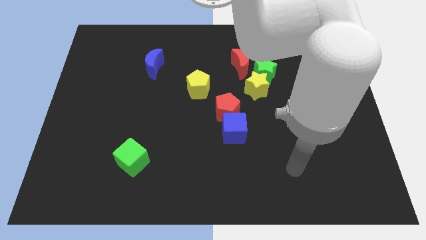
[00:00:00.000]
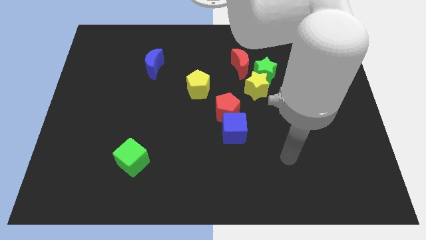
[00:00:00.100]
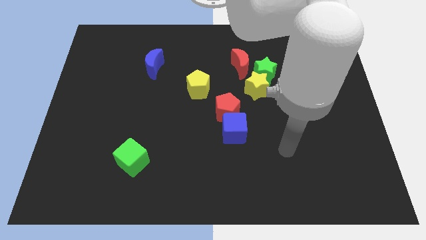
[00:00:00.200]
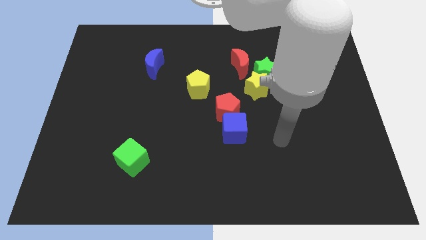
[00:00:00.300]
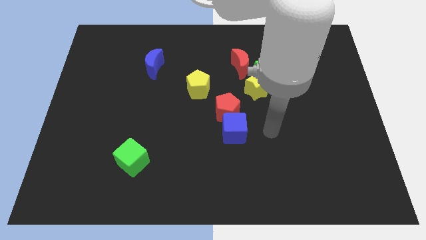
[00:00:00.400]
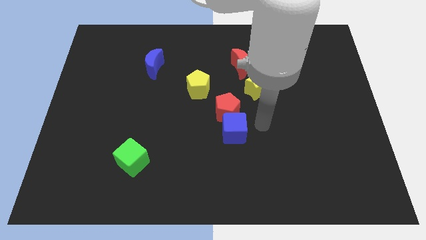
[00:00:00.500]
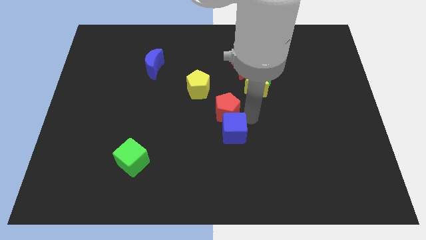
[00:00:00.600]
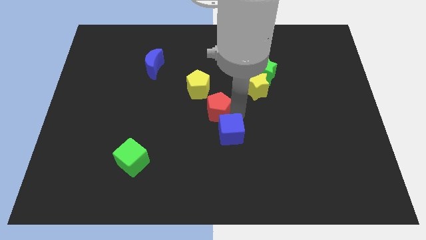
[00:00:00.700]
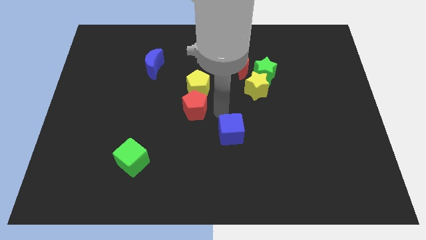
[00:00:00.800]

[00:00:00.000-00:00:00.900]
move the blue cube away from the red pentagon

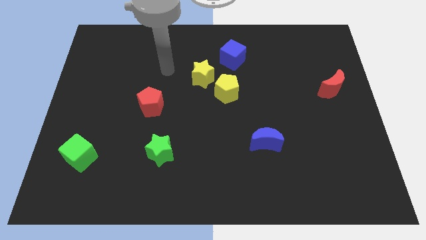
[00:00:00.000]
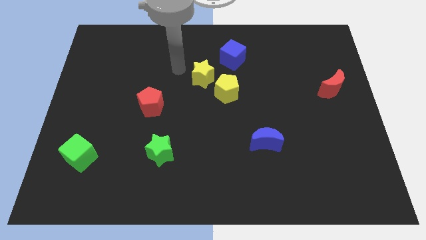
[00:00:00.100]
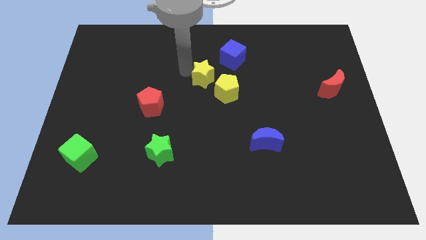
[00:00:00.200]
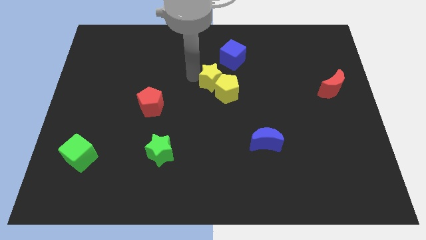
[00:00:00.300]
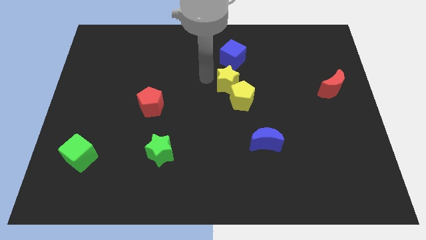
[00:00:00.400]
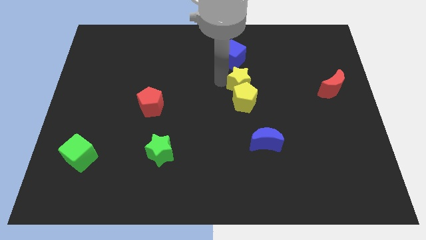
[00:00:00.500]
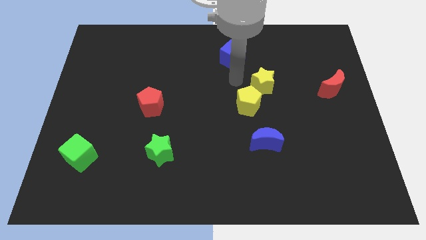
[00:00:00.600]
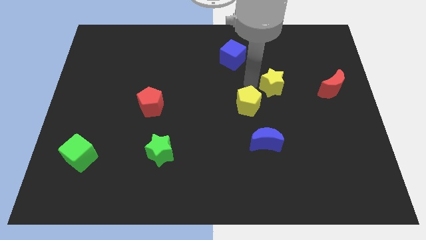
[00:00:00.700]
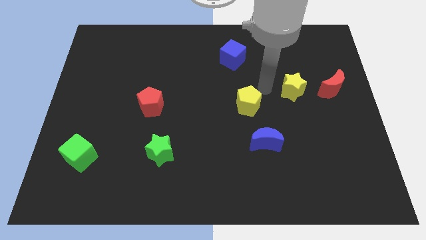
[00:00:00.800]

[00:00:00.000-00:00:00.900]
move the yellow pentagon away from the yellow star

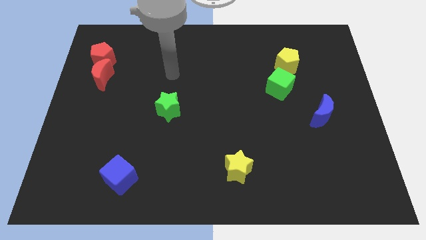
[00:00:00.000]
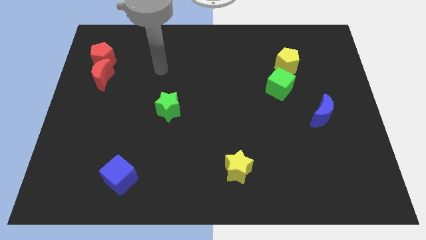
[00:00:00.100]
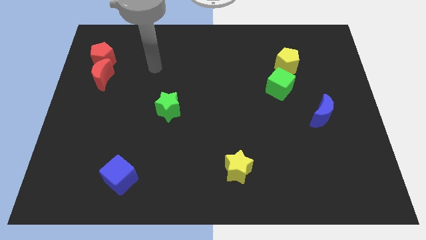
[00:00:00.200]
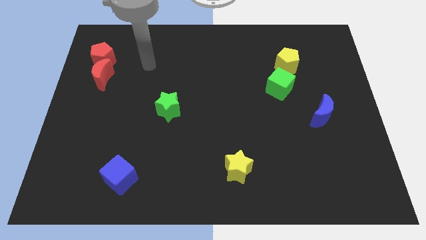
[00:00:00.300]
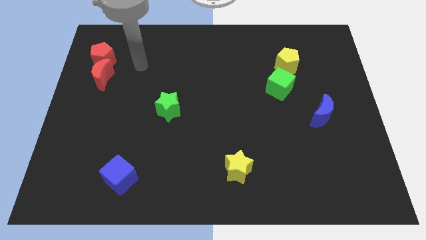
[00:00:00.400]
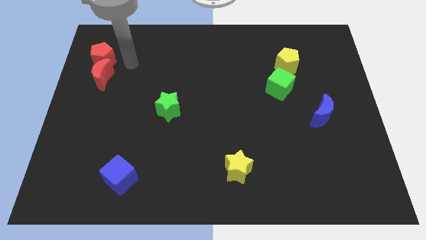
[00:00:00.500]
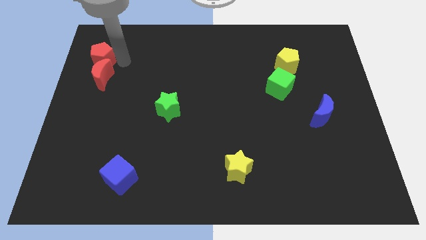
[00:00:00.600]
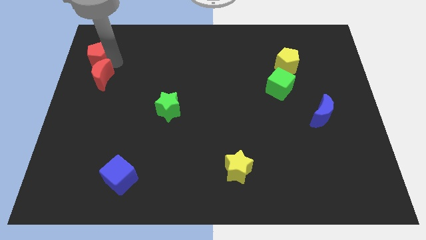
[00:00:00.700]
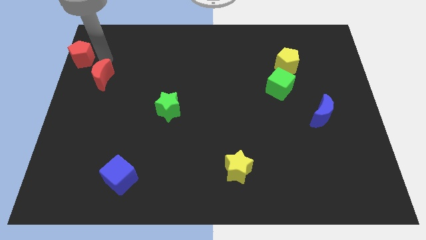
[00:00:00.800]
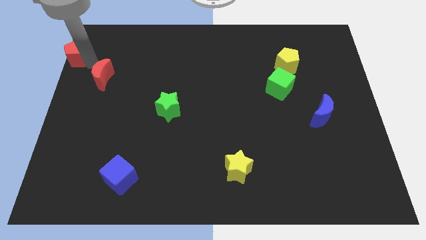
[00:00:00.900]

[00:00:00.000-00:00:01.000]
separate the red moon from the red pentagon

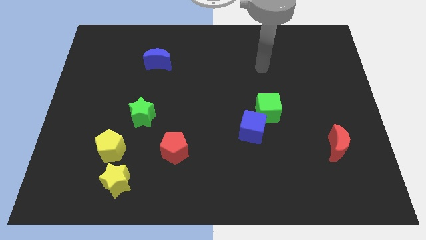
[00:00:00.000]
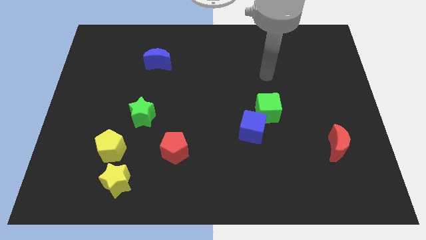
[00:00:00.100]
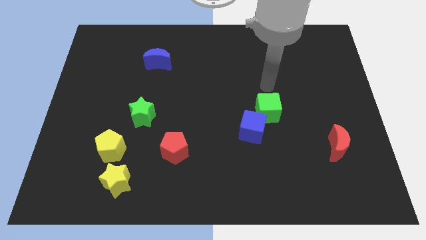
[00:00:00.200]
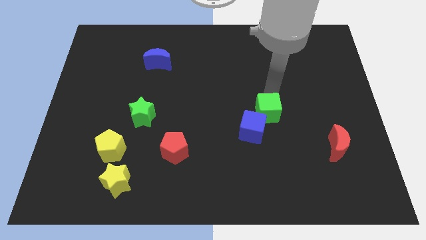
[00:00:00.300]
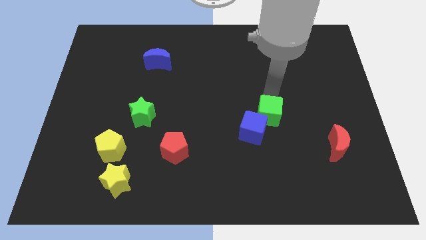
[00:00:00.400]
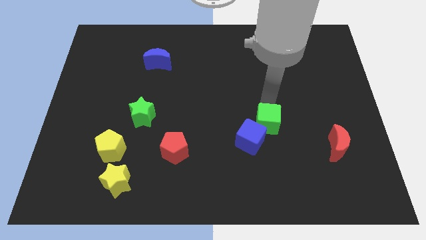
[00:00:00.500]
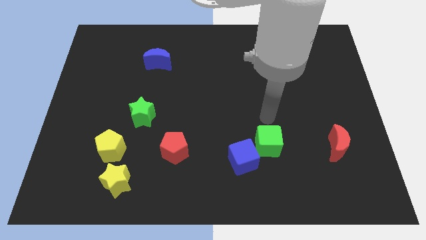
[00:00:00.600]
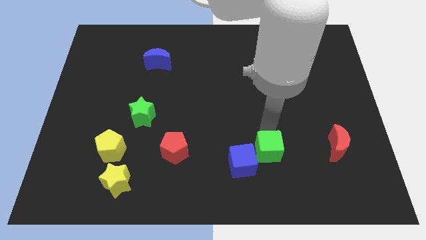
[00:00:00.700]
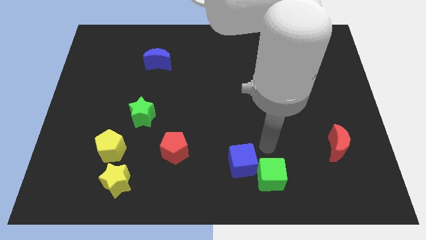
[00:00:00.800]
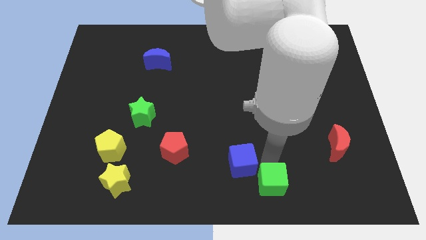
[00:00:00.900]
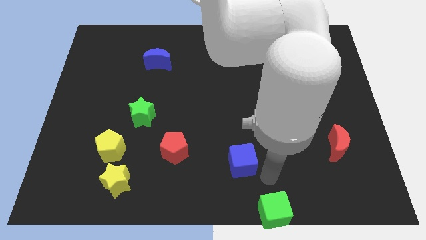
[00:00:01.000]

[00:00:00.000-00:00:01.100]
pull the blue cube apart from the green cube

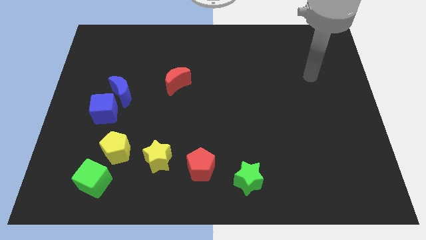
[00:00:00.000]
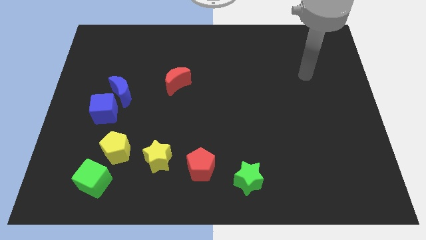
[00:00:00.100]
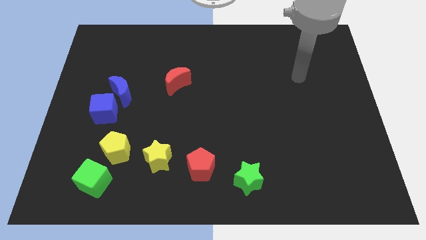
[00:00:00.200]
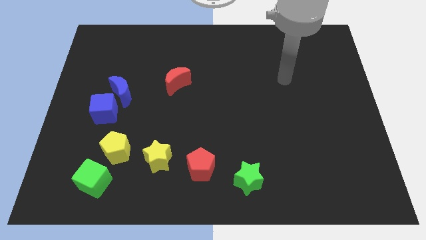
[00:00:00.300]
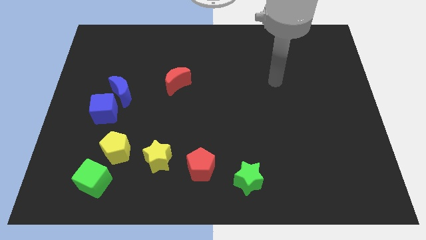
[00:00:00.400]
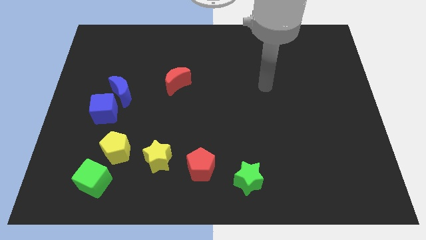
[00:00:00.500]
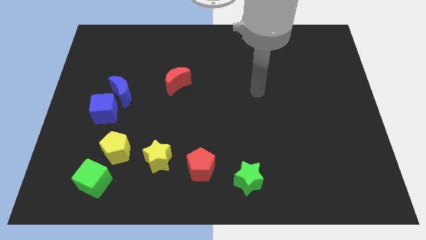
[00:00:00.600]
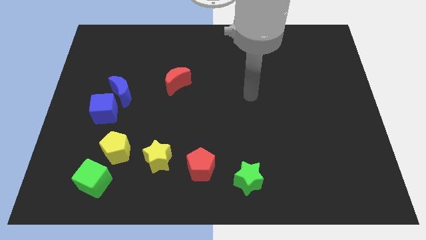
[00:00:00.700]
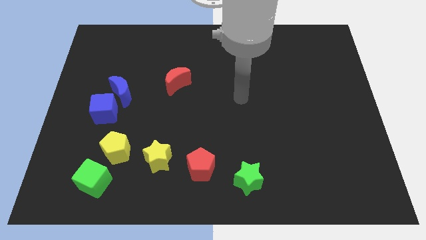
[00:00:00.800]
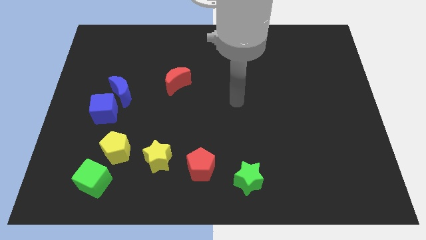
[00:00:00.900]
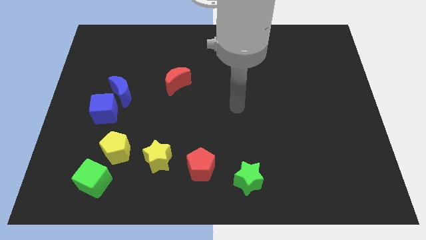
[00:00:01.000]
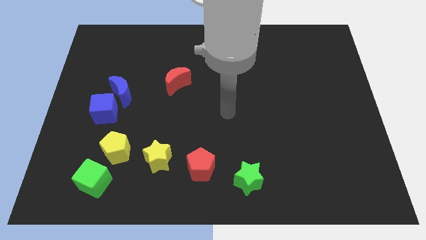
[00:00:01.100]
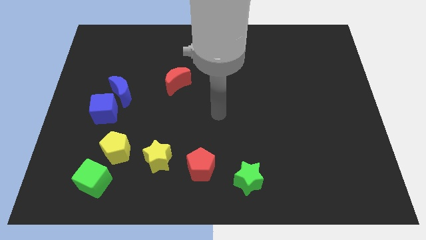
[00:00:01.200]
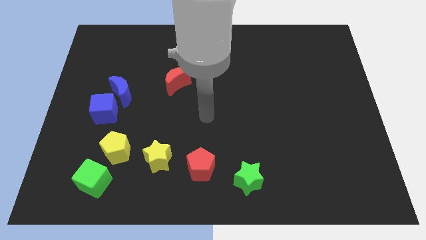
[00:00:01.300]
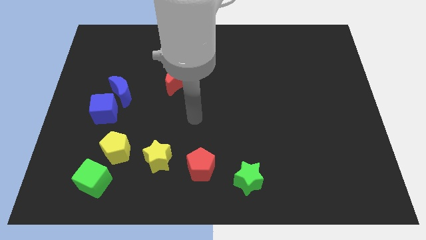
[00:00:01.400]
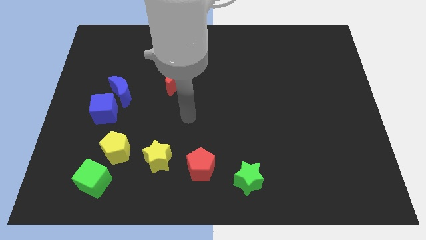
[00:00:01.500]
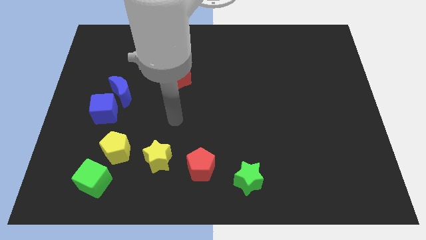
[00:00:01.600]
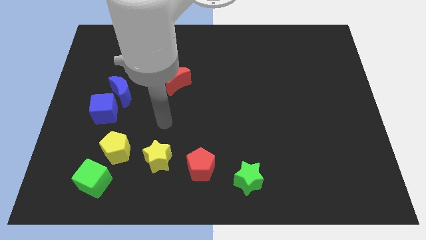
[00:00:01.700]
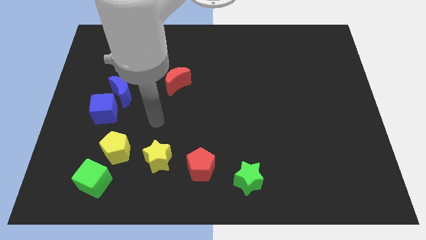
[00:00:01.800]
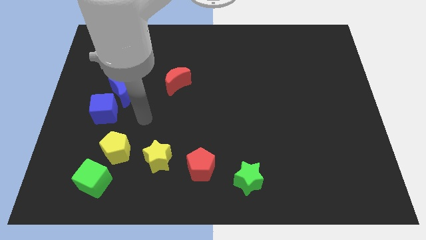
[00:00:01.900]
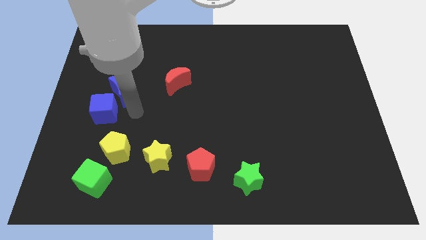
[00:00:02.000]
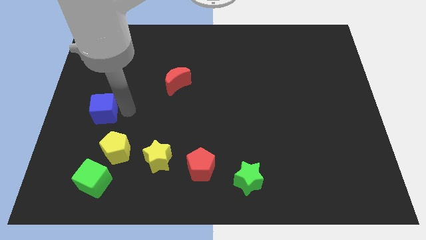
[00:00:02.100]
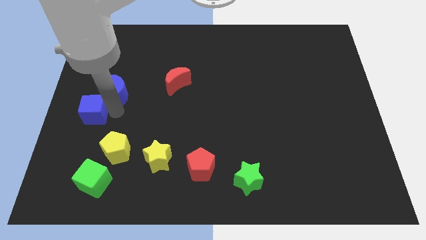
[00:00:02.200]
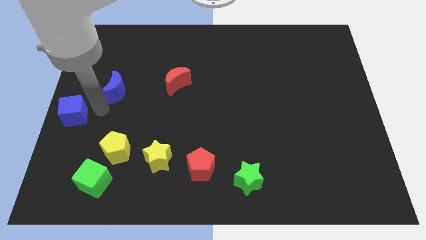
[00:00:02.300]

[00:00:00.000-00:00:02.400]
pull the blue moon apart from the blue cube

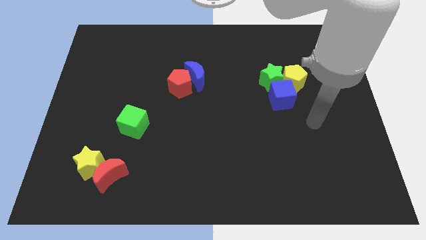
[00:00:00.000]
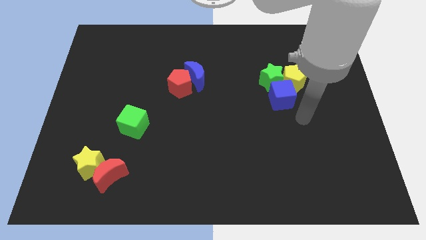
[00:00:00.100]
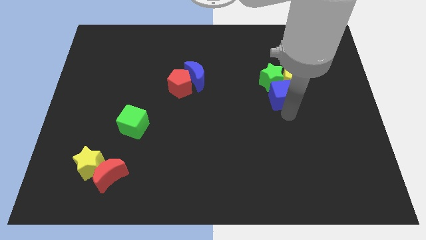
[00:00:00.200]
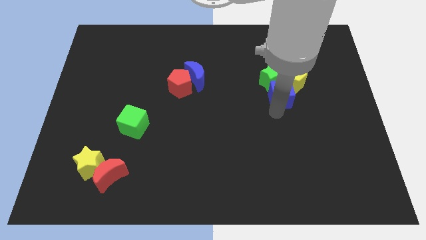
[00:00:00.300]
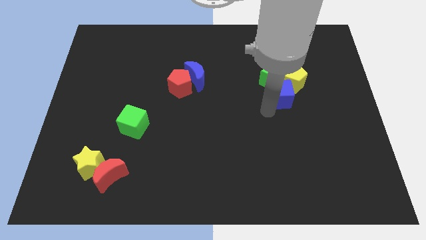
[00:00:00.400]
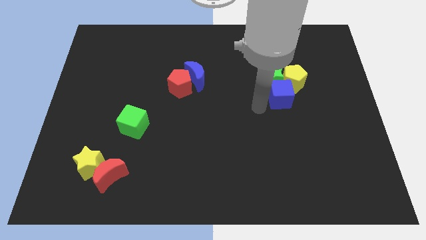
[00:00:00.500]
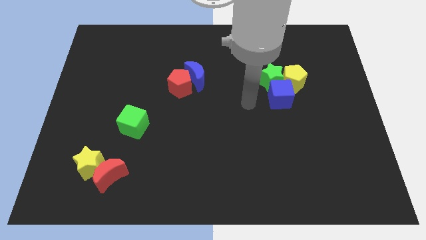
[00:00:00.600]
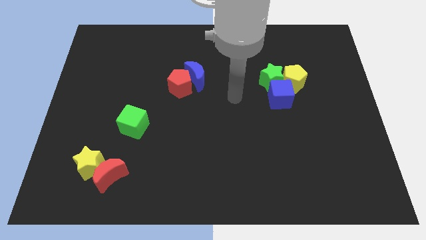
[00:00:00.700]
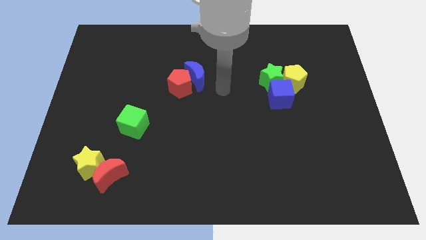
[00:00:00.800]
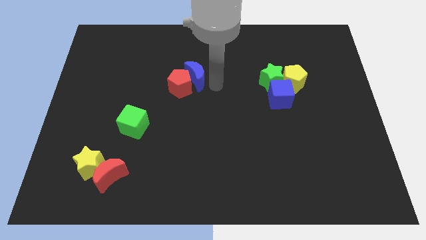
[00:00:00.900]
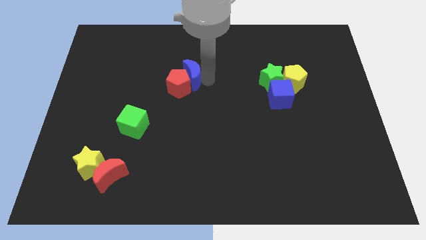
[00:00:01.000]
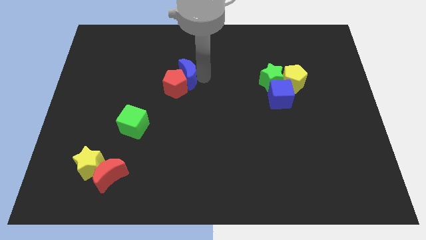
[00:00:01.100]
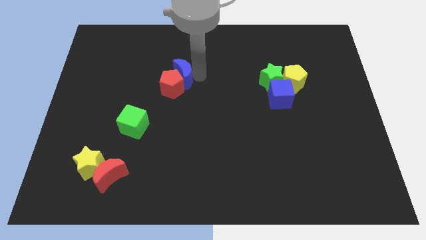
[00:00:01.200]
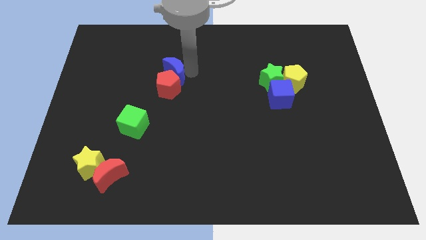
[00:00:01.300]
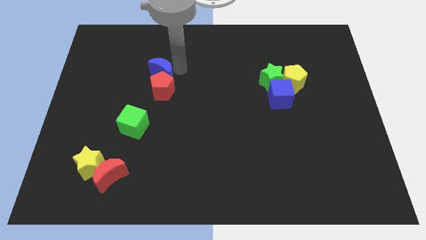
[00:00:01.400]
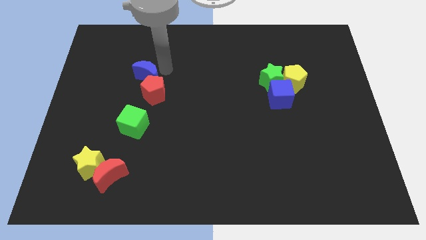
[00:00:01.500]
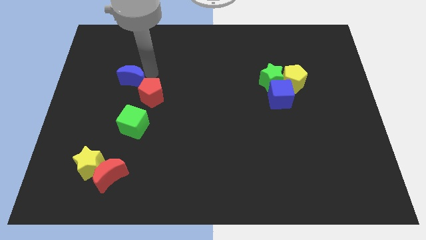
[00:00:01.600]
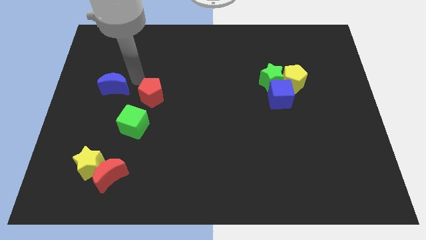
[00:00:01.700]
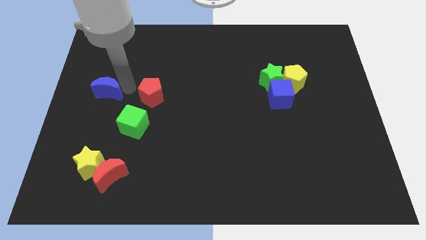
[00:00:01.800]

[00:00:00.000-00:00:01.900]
pull the red pentagon apart from the blue moon

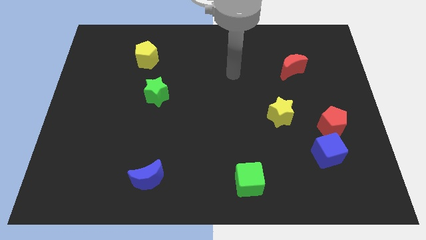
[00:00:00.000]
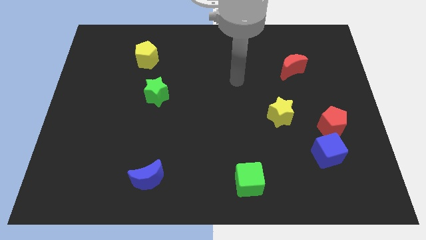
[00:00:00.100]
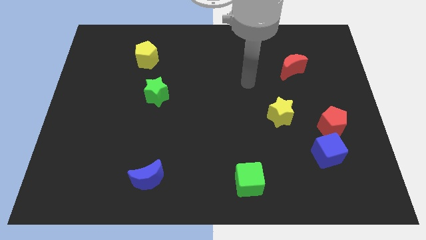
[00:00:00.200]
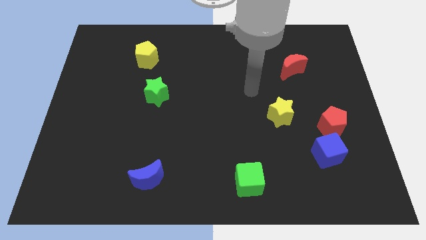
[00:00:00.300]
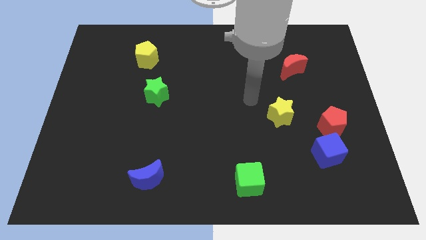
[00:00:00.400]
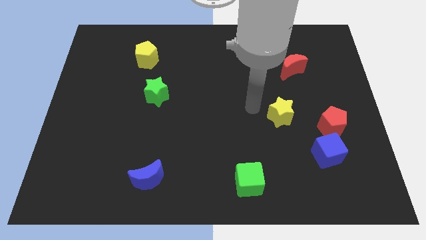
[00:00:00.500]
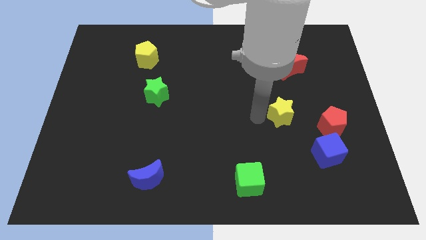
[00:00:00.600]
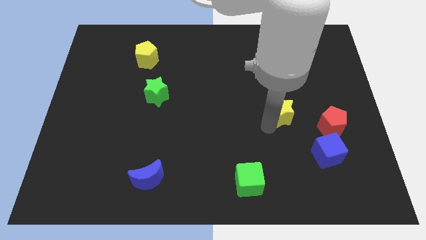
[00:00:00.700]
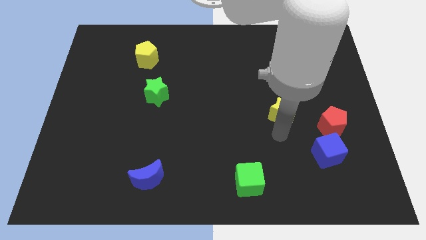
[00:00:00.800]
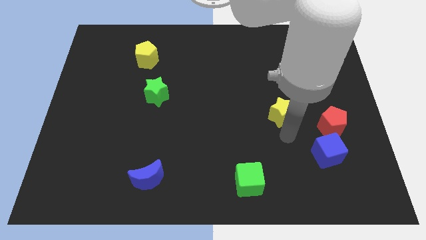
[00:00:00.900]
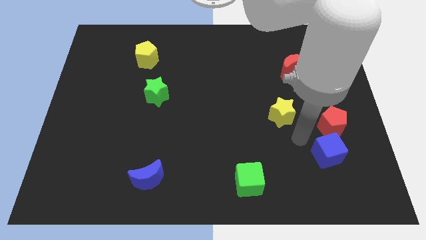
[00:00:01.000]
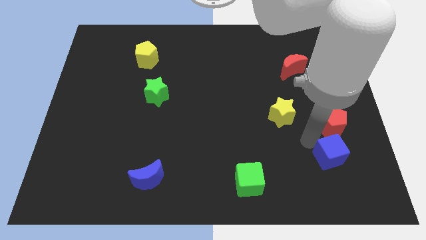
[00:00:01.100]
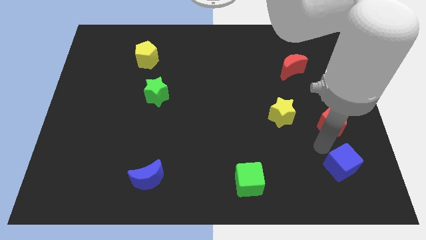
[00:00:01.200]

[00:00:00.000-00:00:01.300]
pull the red pentagon apart from the blue cube
